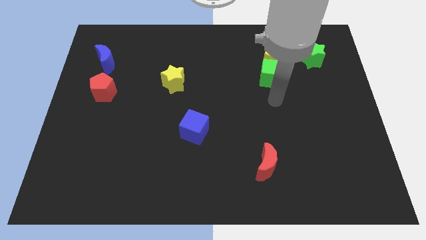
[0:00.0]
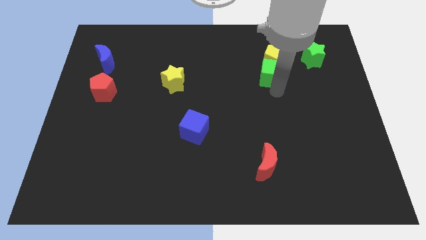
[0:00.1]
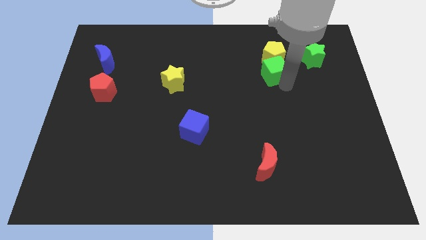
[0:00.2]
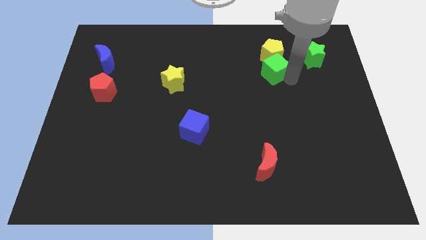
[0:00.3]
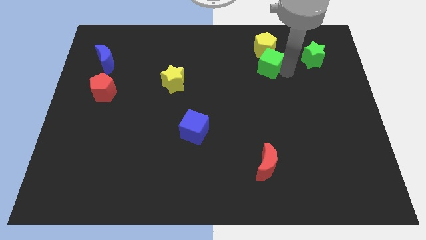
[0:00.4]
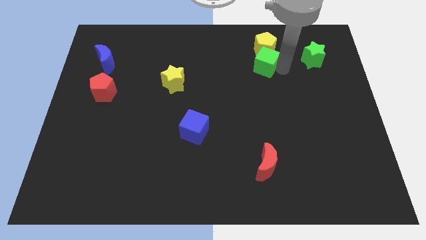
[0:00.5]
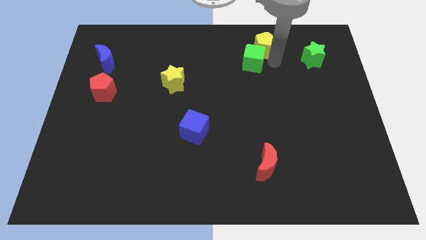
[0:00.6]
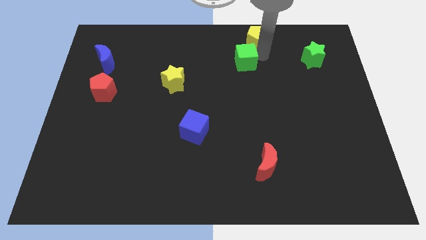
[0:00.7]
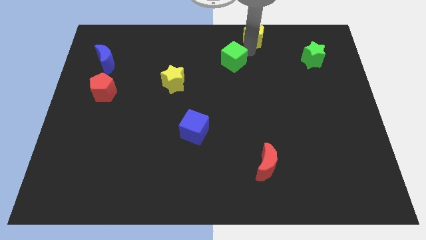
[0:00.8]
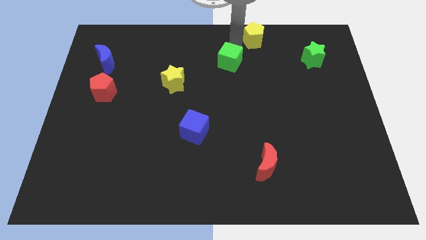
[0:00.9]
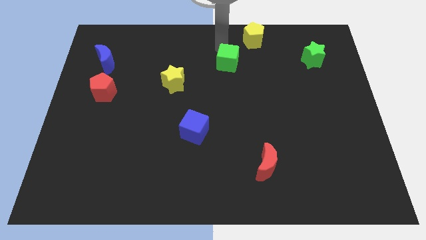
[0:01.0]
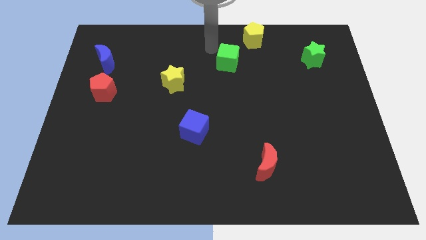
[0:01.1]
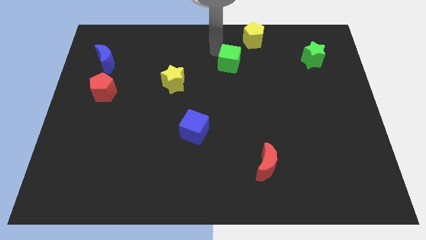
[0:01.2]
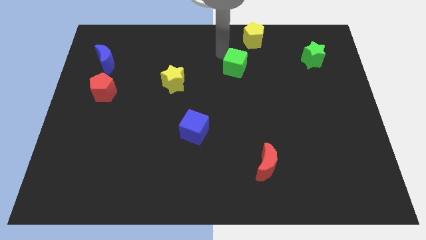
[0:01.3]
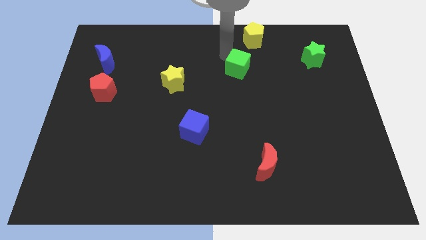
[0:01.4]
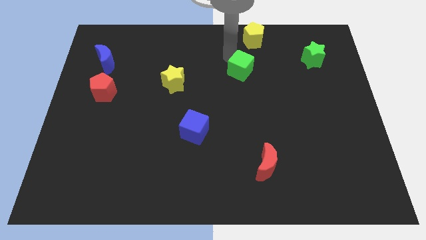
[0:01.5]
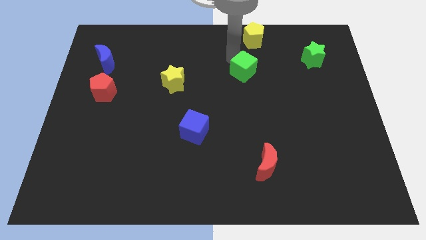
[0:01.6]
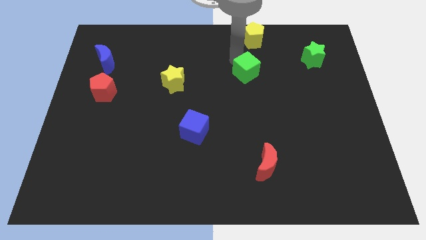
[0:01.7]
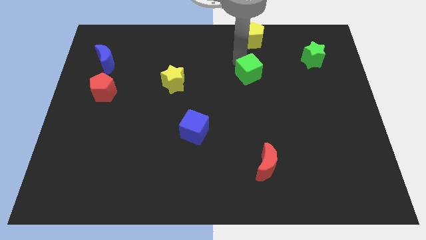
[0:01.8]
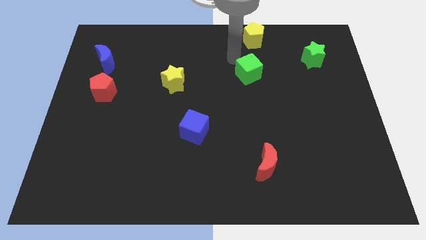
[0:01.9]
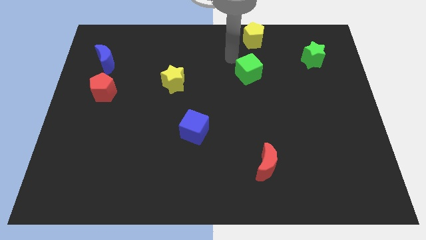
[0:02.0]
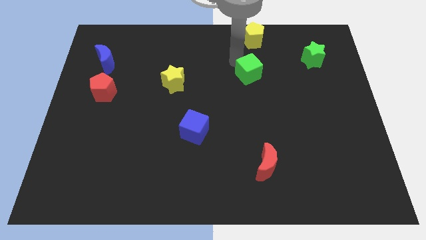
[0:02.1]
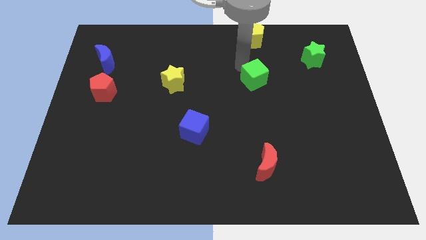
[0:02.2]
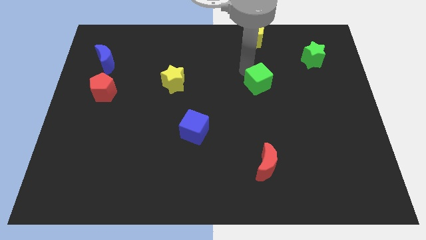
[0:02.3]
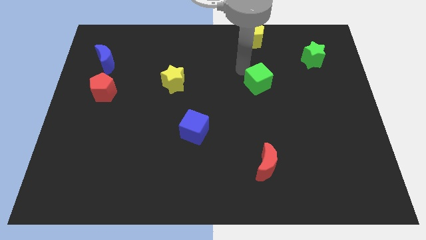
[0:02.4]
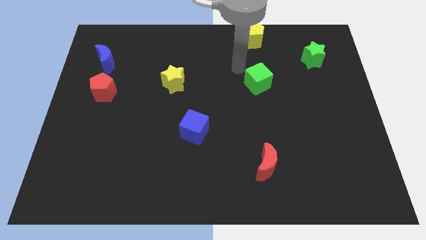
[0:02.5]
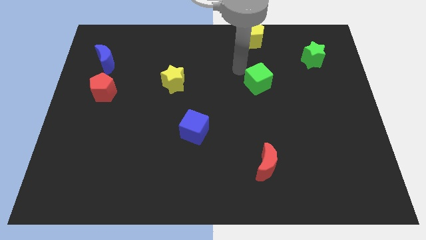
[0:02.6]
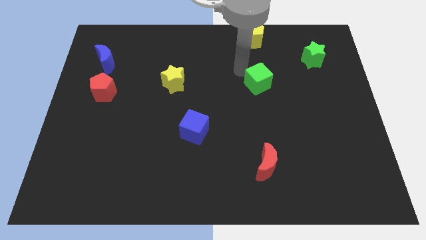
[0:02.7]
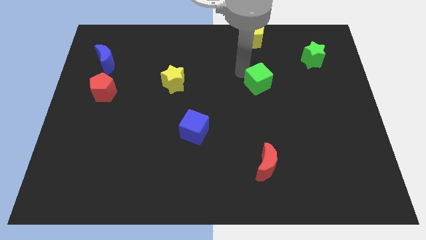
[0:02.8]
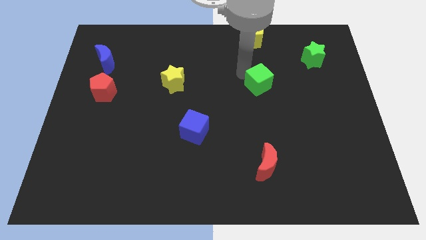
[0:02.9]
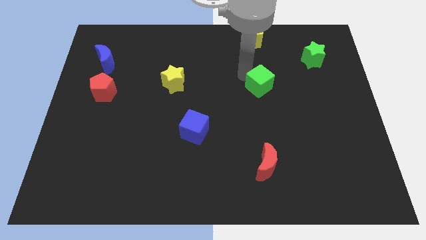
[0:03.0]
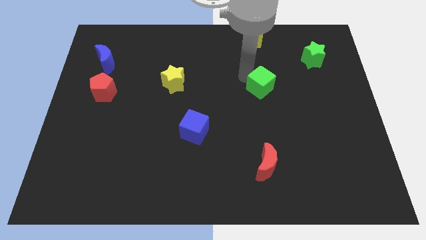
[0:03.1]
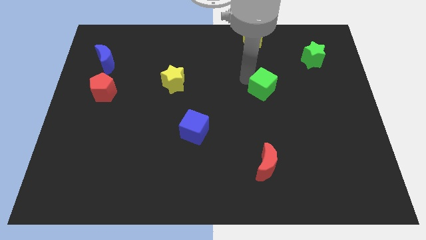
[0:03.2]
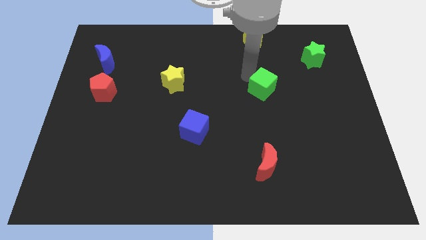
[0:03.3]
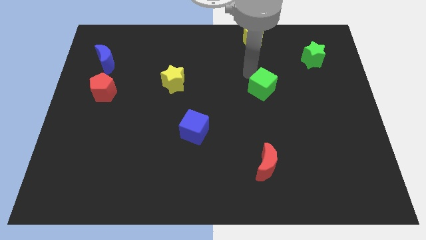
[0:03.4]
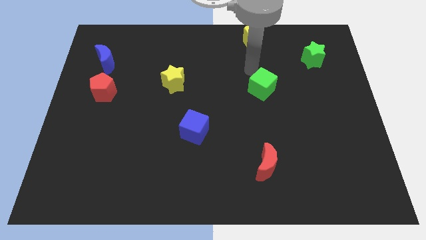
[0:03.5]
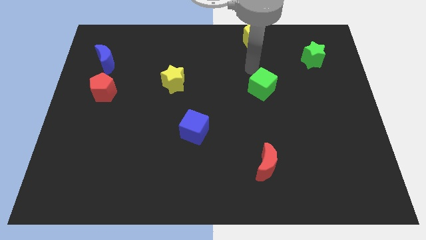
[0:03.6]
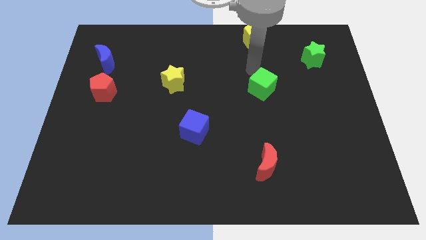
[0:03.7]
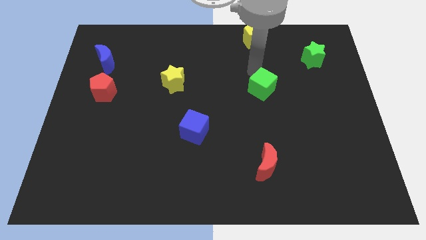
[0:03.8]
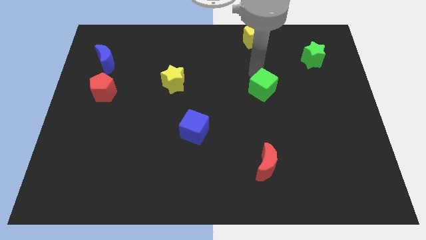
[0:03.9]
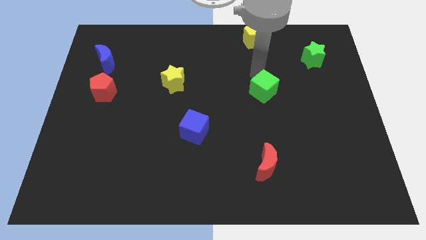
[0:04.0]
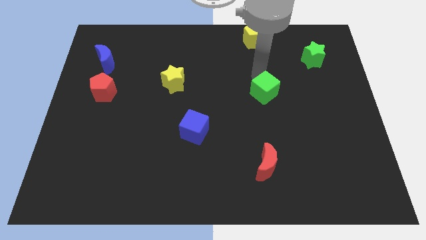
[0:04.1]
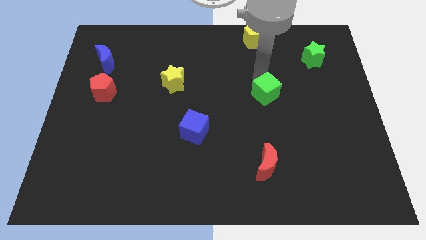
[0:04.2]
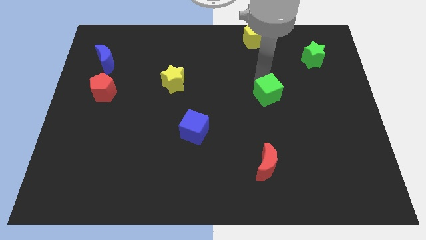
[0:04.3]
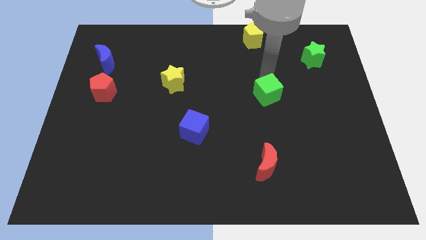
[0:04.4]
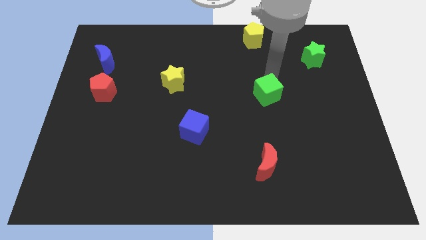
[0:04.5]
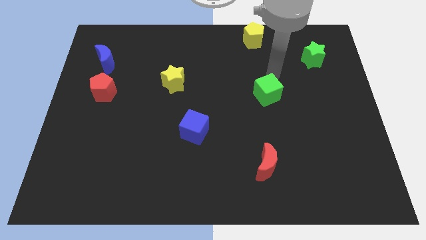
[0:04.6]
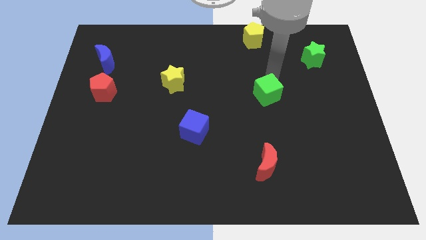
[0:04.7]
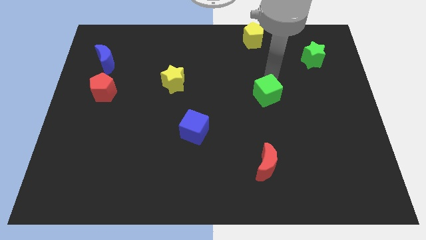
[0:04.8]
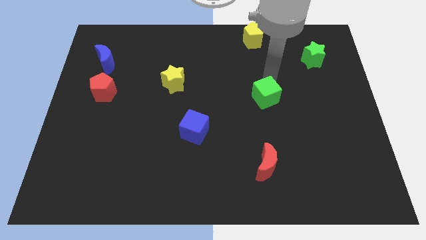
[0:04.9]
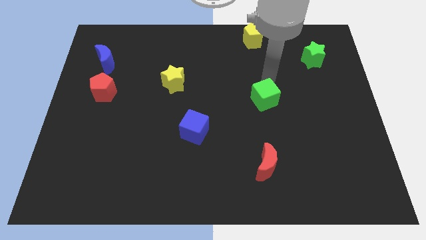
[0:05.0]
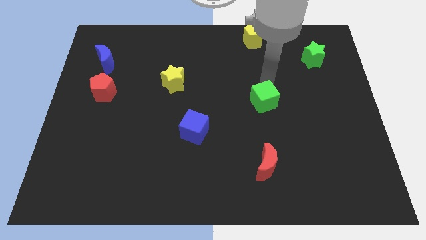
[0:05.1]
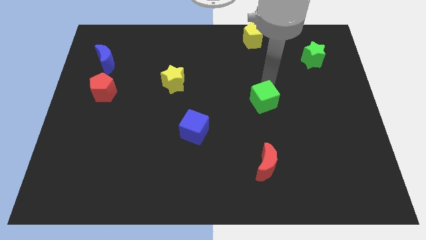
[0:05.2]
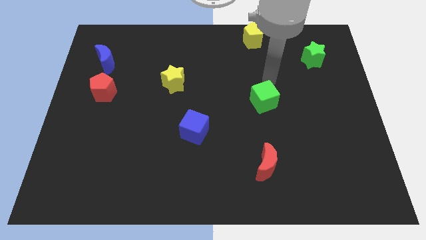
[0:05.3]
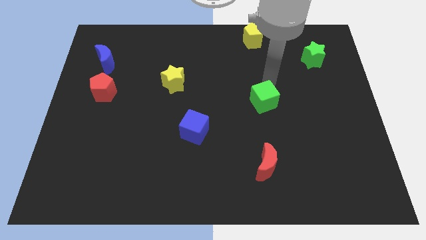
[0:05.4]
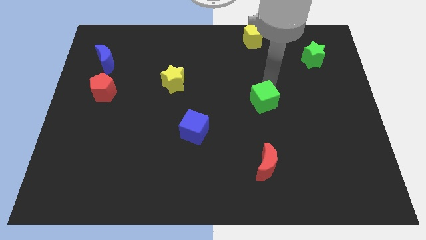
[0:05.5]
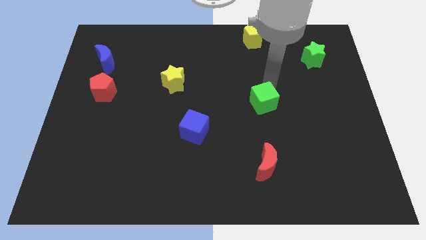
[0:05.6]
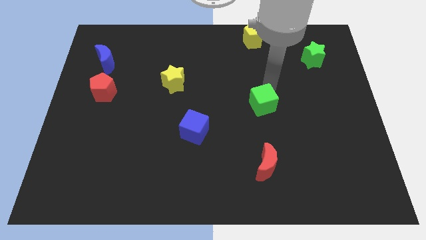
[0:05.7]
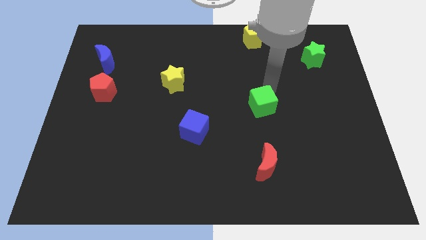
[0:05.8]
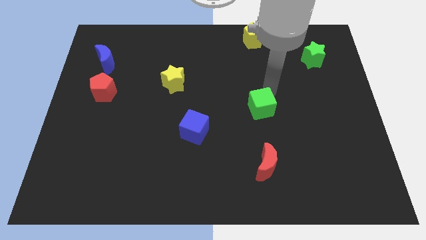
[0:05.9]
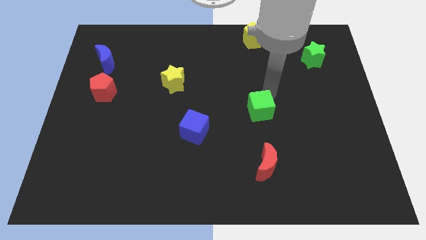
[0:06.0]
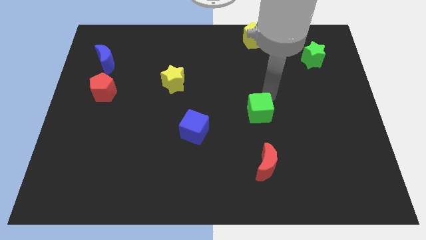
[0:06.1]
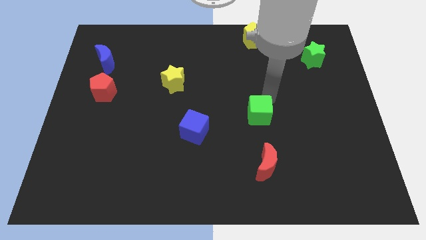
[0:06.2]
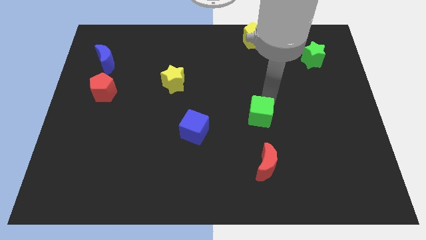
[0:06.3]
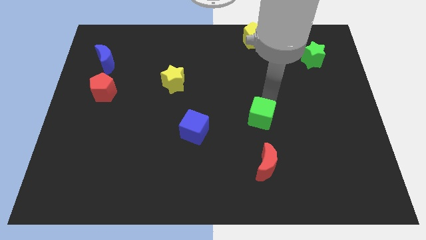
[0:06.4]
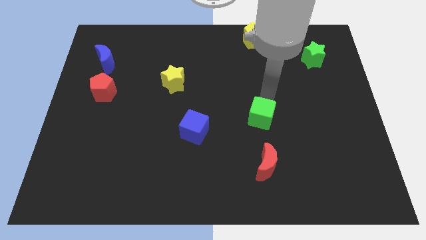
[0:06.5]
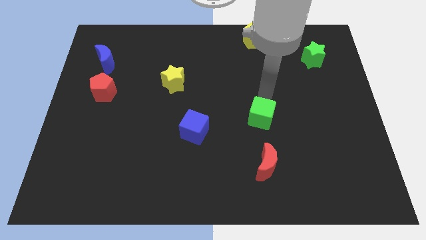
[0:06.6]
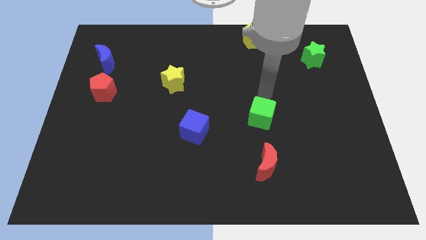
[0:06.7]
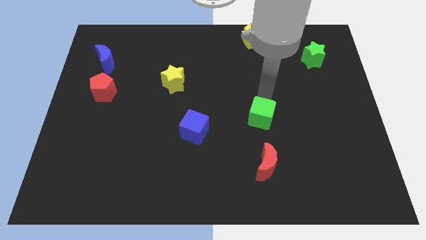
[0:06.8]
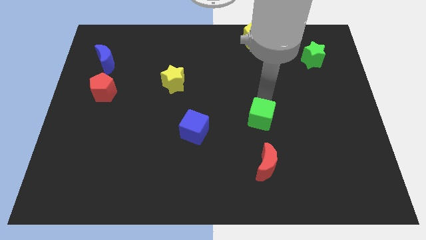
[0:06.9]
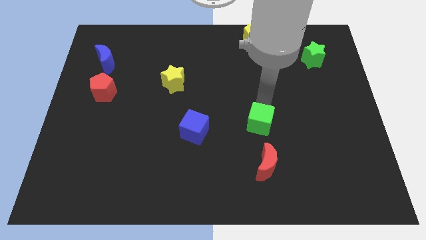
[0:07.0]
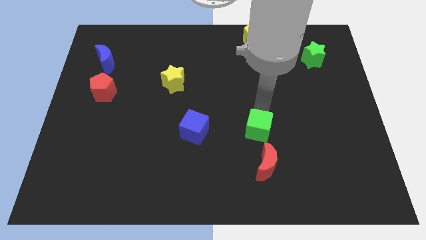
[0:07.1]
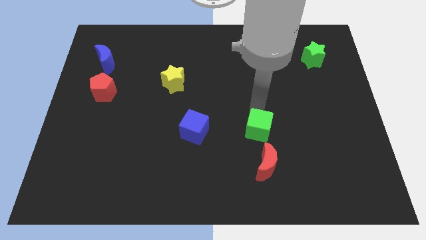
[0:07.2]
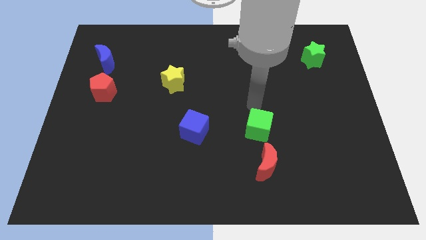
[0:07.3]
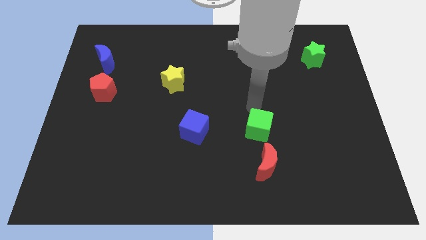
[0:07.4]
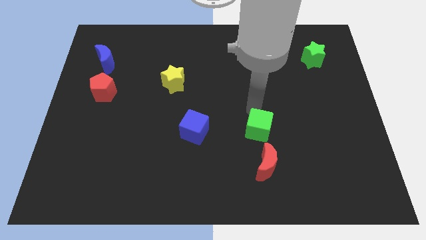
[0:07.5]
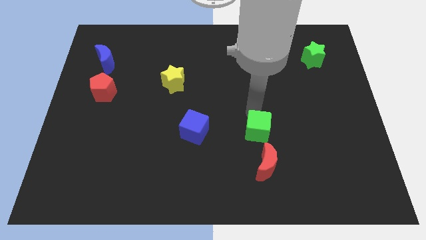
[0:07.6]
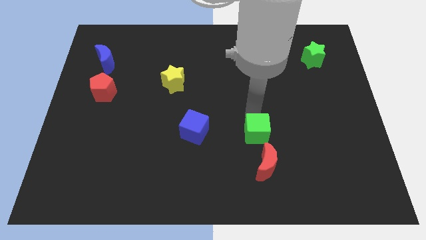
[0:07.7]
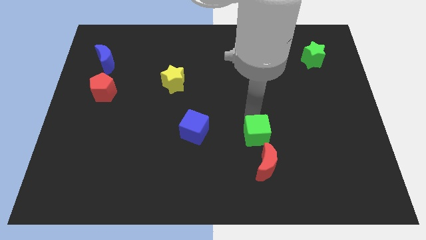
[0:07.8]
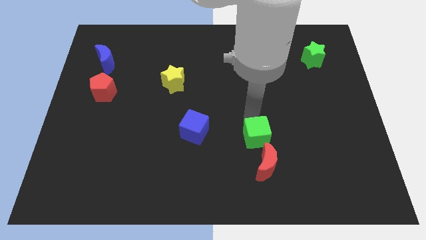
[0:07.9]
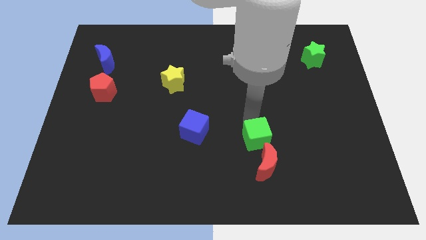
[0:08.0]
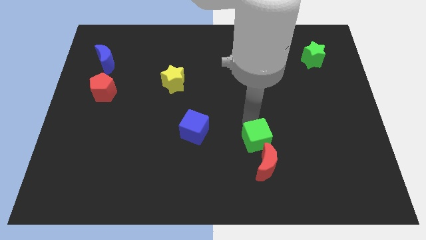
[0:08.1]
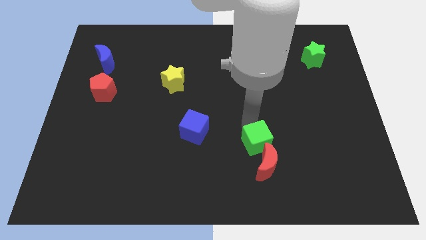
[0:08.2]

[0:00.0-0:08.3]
put the green cube towards the red moon
